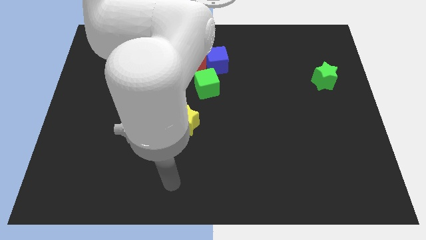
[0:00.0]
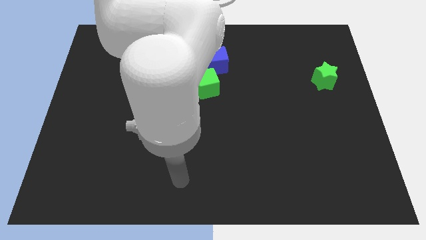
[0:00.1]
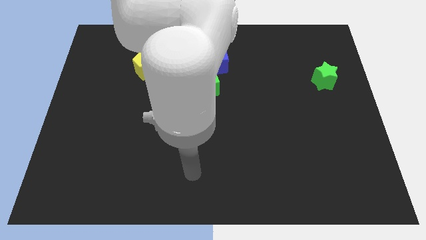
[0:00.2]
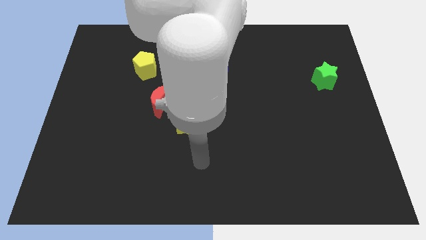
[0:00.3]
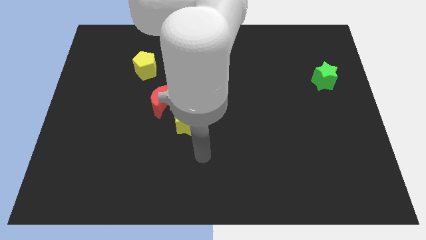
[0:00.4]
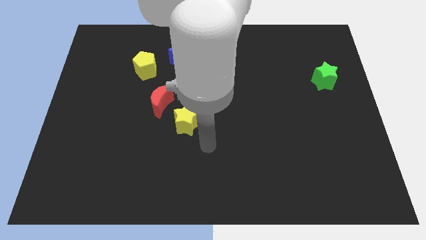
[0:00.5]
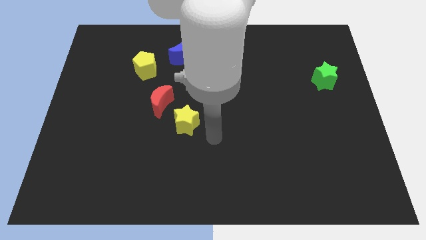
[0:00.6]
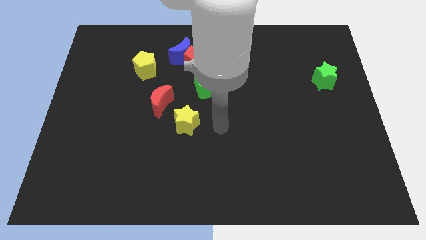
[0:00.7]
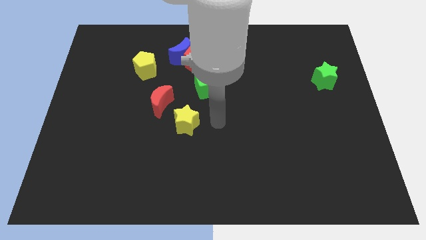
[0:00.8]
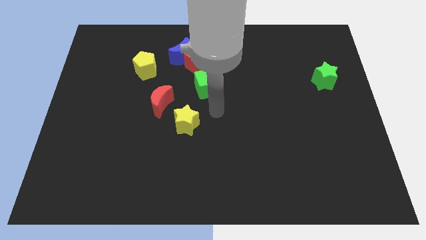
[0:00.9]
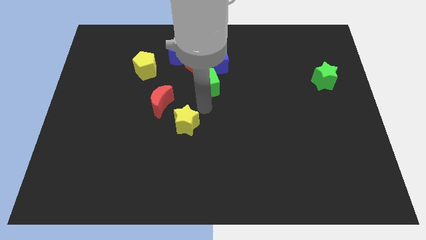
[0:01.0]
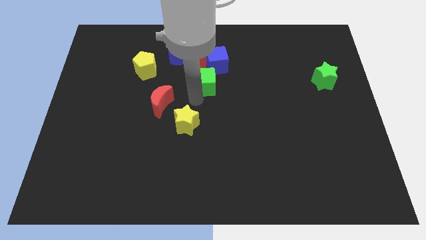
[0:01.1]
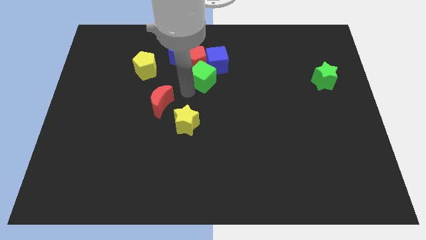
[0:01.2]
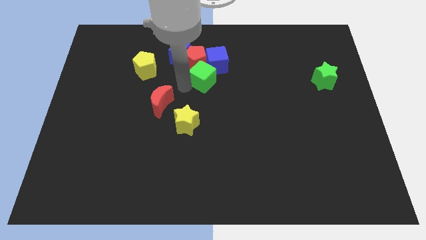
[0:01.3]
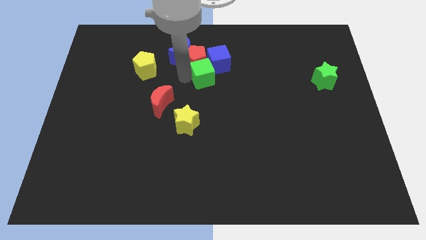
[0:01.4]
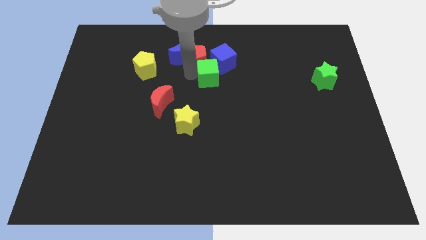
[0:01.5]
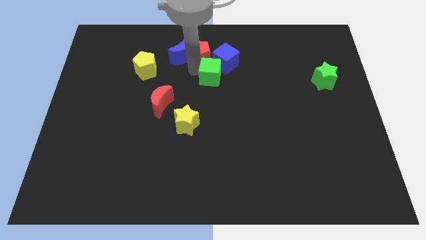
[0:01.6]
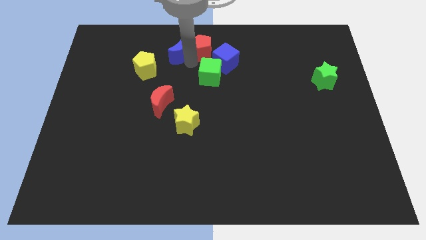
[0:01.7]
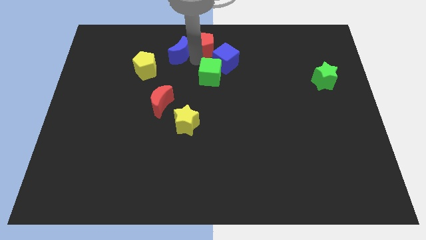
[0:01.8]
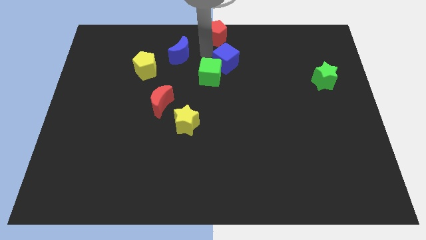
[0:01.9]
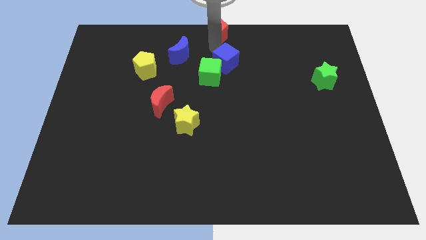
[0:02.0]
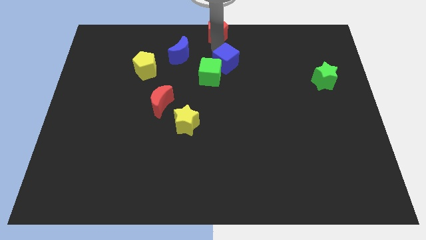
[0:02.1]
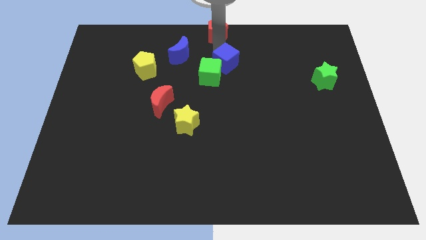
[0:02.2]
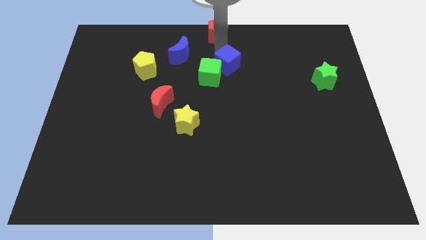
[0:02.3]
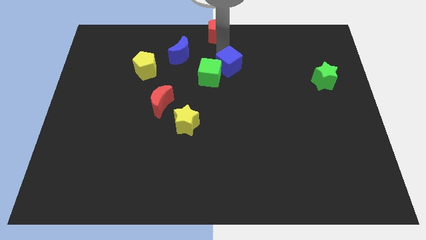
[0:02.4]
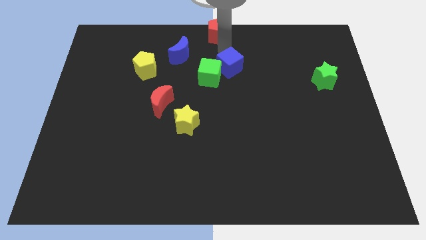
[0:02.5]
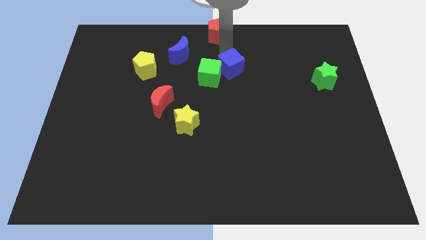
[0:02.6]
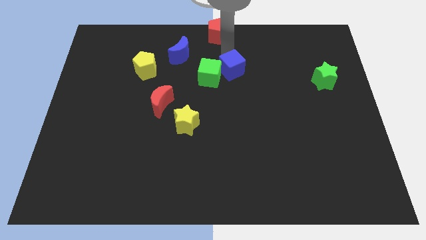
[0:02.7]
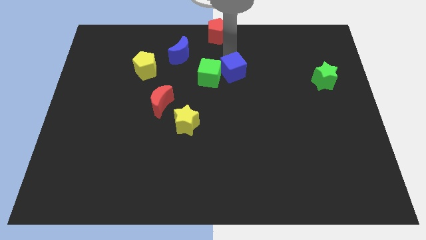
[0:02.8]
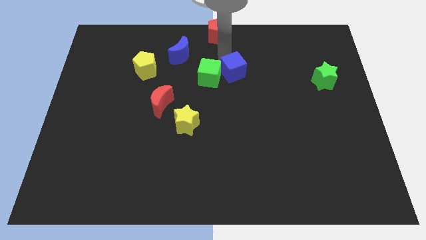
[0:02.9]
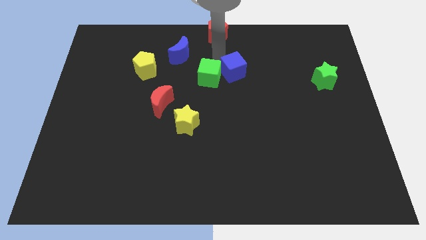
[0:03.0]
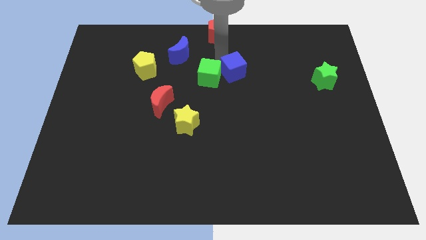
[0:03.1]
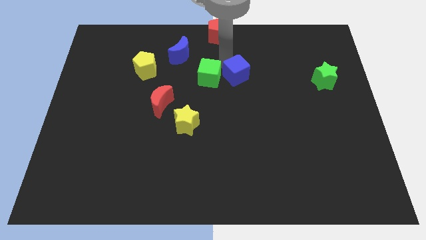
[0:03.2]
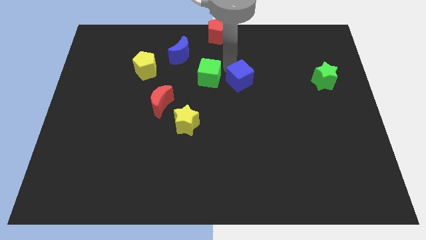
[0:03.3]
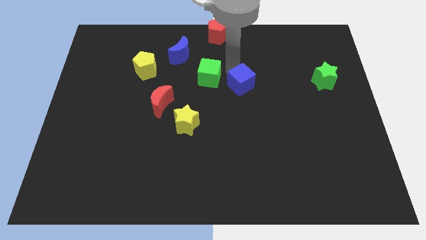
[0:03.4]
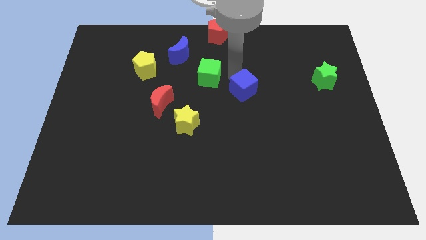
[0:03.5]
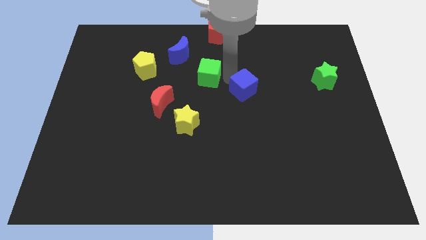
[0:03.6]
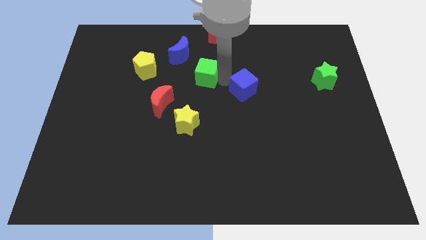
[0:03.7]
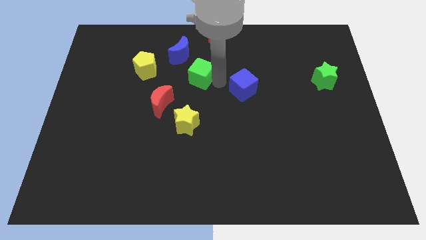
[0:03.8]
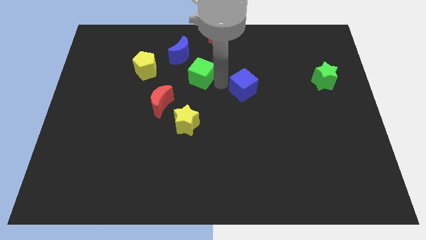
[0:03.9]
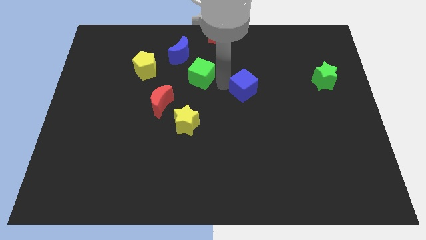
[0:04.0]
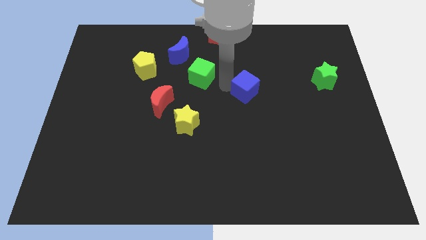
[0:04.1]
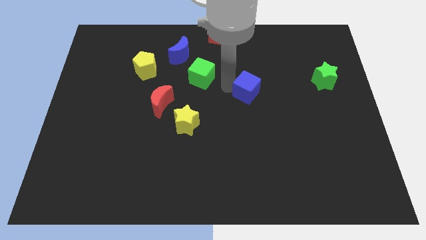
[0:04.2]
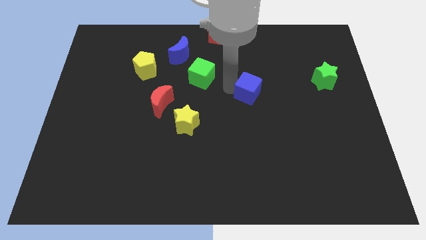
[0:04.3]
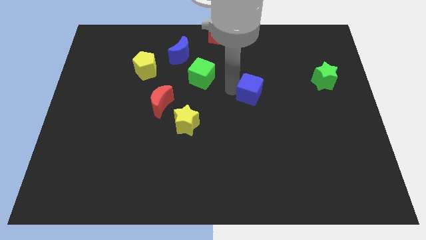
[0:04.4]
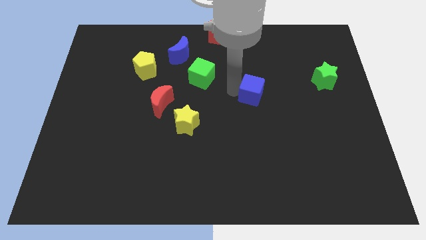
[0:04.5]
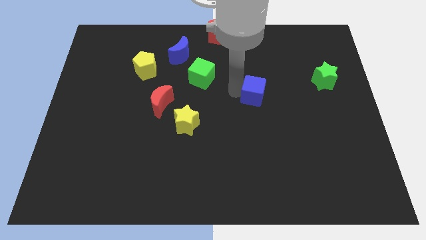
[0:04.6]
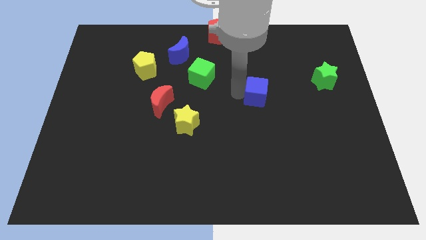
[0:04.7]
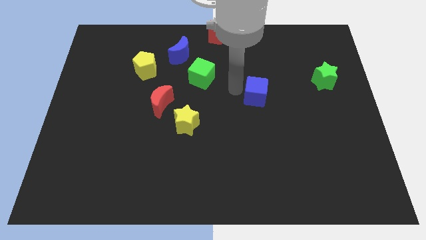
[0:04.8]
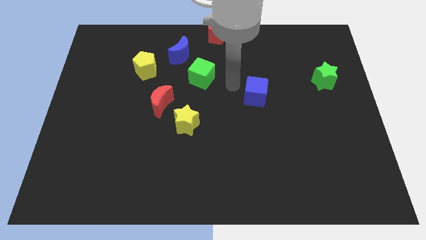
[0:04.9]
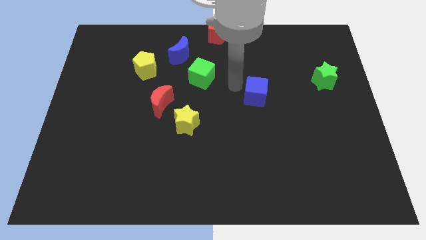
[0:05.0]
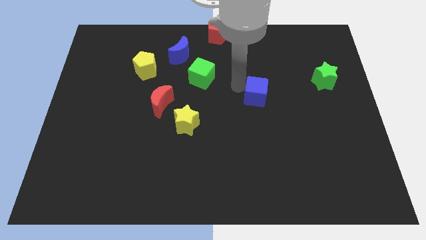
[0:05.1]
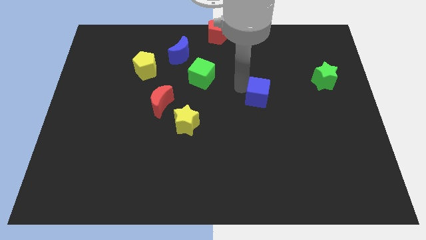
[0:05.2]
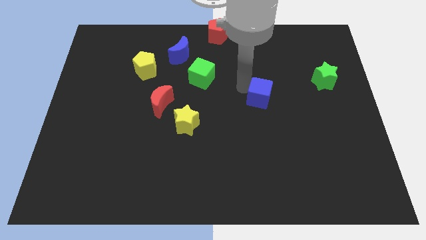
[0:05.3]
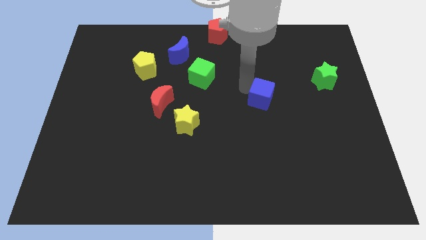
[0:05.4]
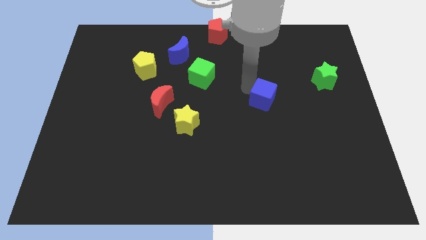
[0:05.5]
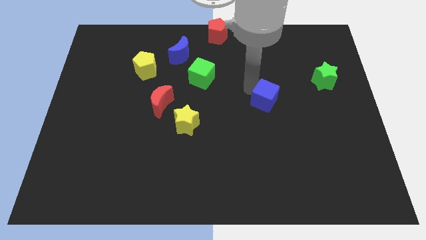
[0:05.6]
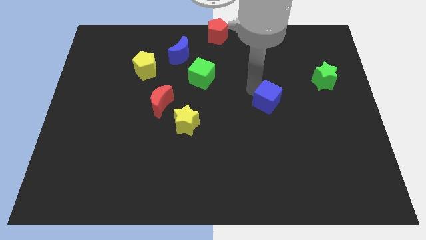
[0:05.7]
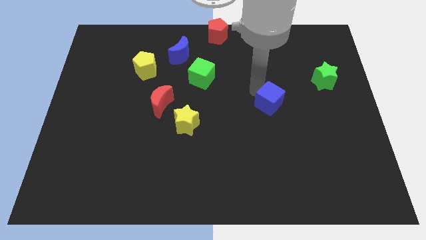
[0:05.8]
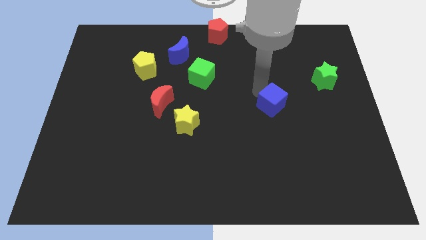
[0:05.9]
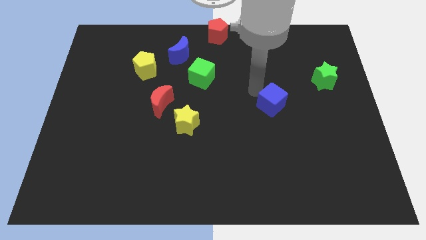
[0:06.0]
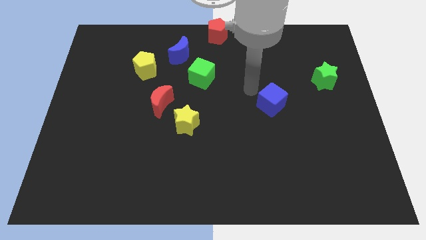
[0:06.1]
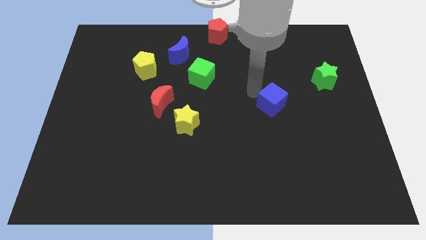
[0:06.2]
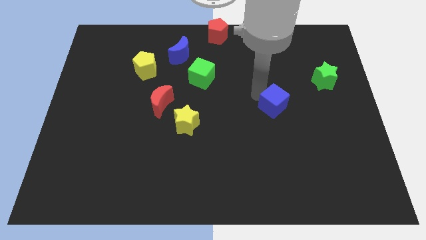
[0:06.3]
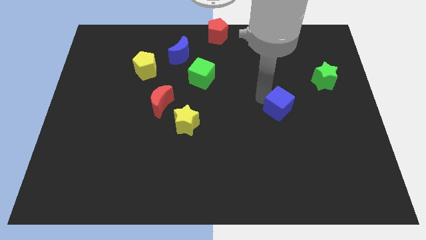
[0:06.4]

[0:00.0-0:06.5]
slide the blue cube down and right diagonally

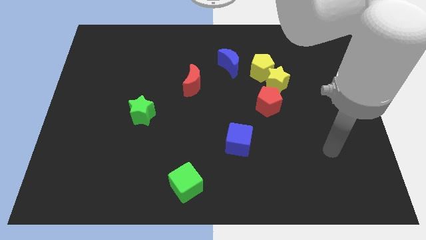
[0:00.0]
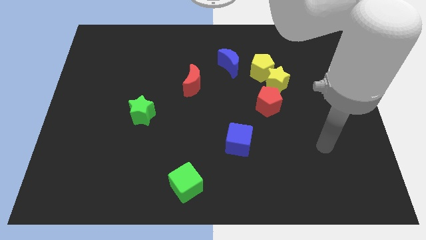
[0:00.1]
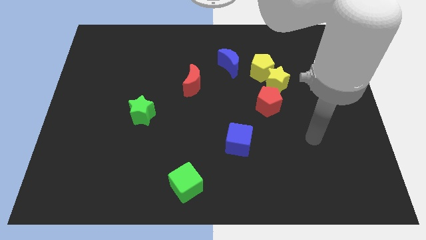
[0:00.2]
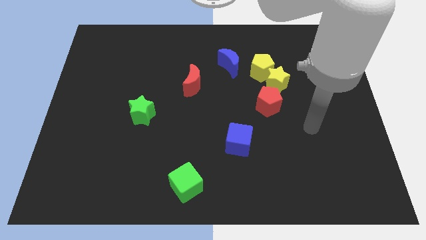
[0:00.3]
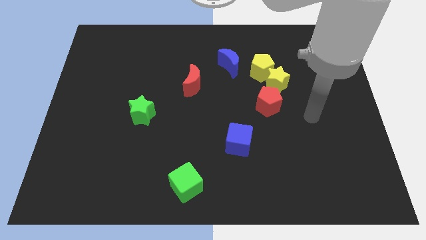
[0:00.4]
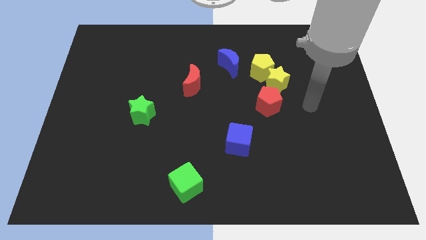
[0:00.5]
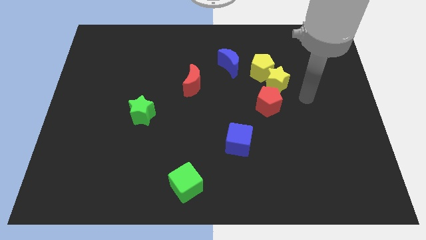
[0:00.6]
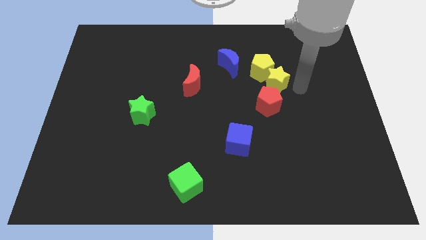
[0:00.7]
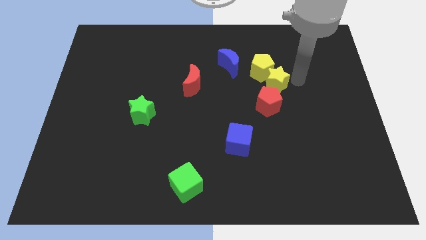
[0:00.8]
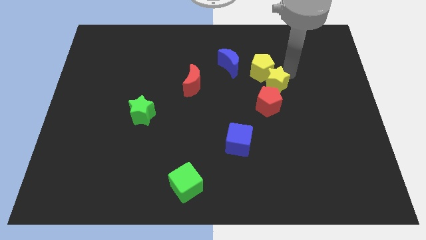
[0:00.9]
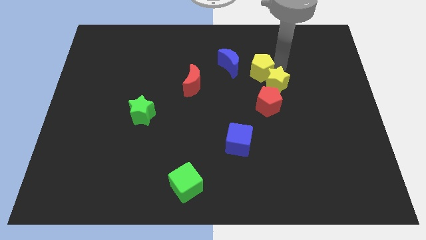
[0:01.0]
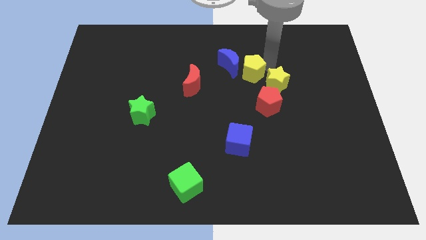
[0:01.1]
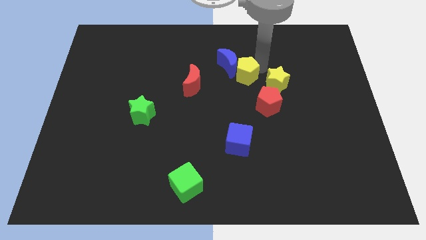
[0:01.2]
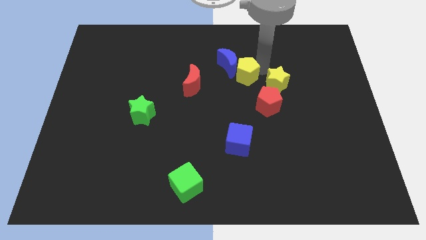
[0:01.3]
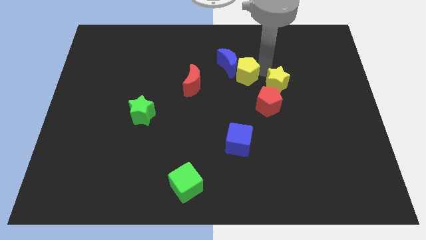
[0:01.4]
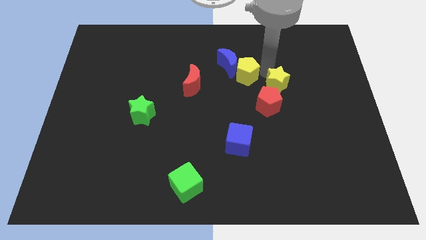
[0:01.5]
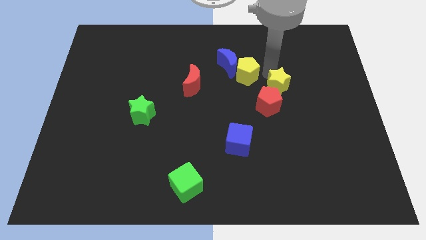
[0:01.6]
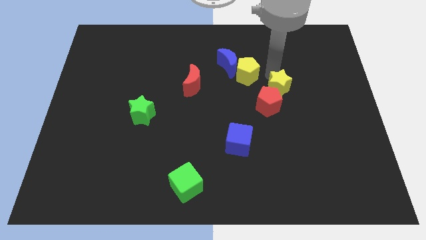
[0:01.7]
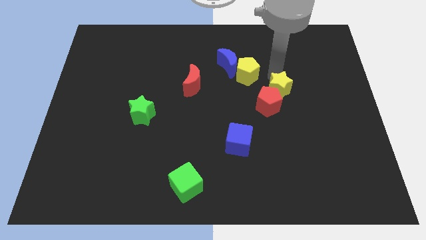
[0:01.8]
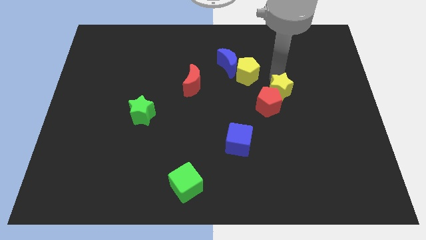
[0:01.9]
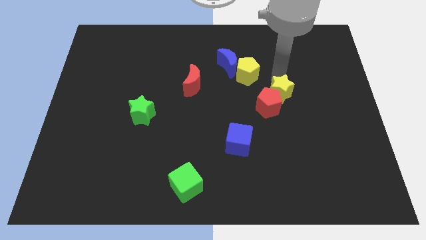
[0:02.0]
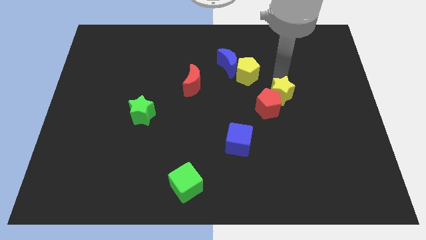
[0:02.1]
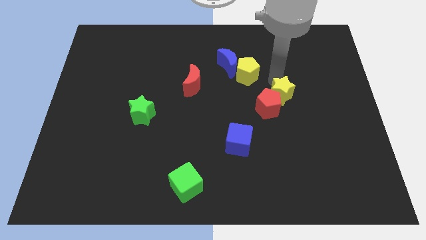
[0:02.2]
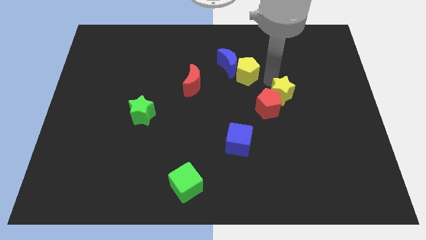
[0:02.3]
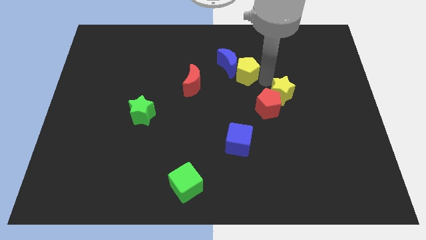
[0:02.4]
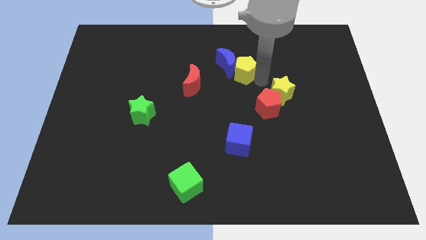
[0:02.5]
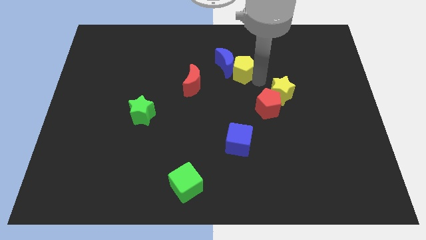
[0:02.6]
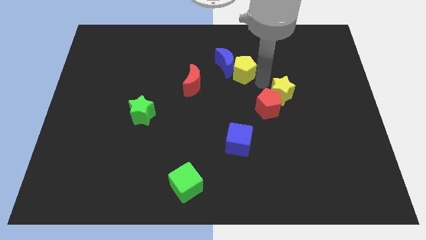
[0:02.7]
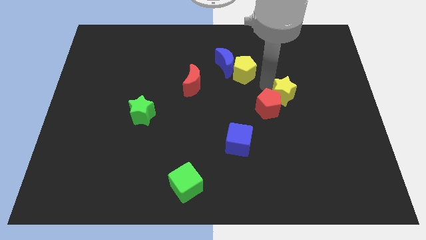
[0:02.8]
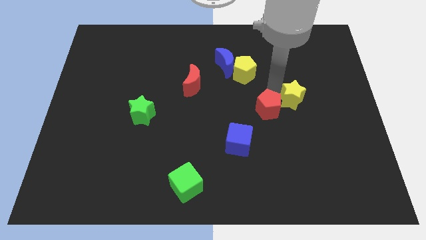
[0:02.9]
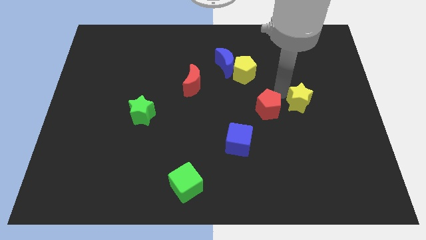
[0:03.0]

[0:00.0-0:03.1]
push the yellow star a bit downwards and then right
